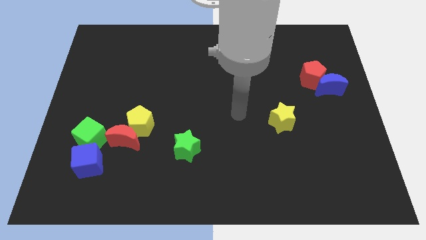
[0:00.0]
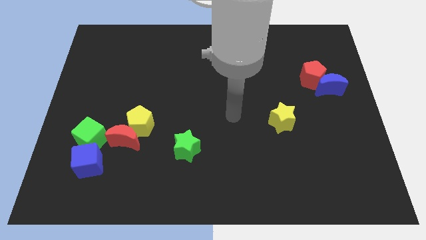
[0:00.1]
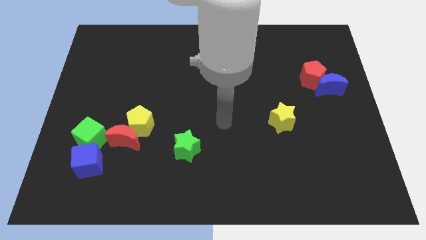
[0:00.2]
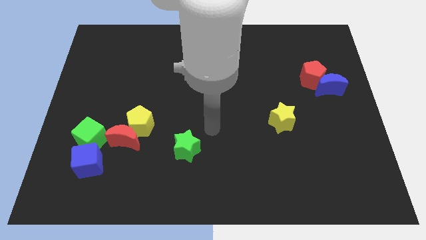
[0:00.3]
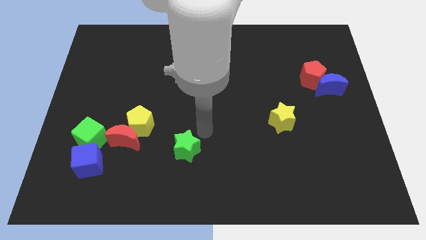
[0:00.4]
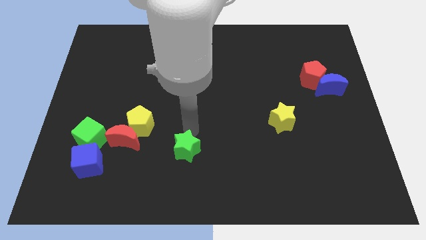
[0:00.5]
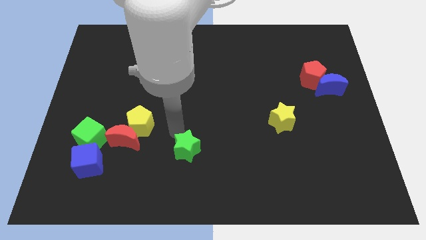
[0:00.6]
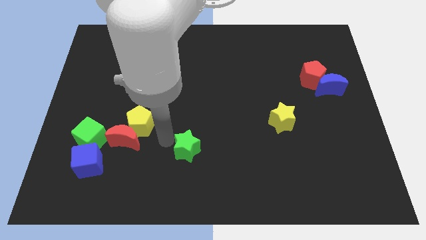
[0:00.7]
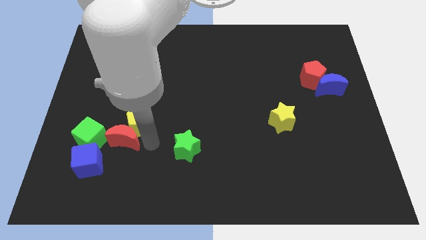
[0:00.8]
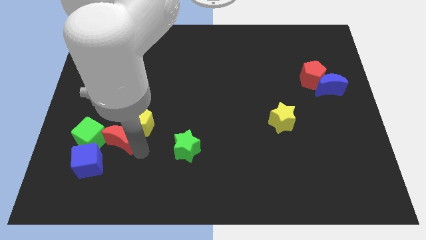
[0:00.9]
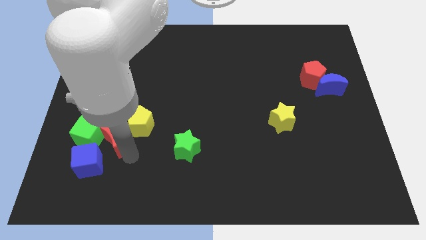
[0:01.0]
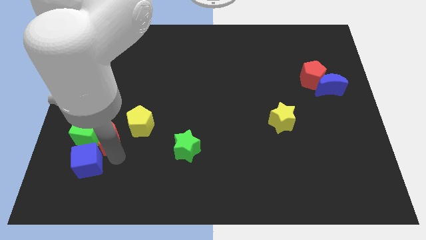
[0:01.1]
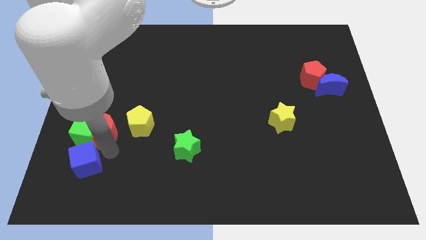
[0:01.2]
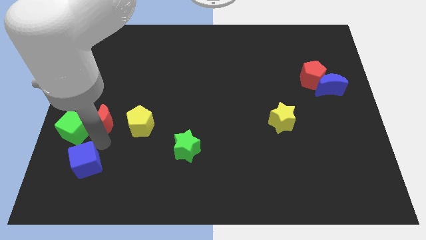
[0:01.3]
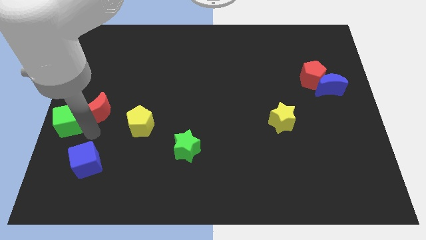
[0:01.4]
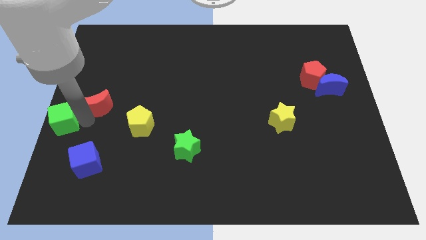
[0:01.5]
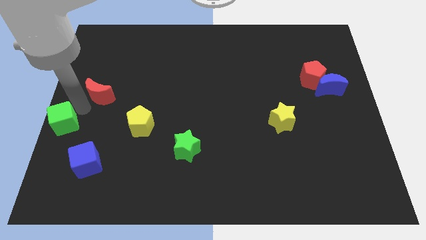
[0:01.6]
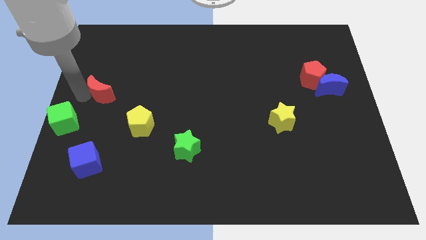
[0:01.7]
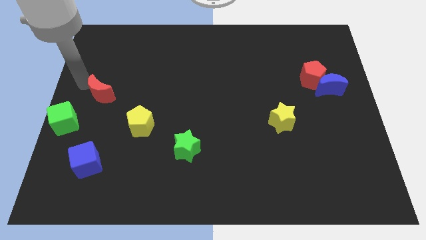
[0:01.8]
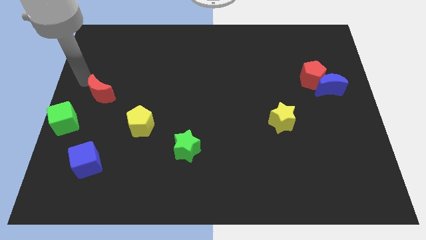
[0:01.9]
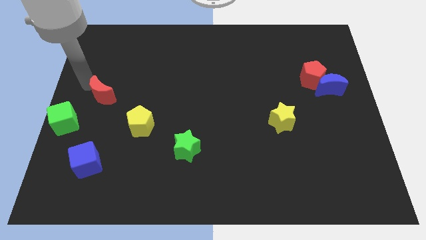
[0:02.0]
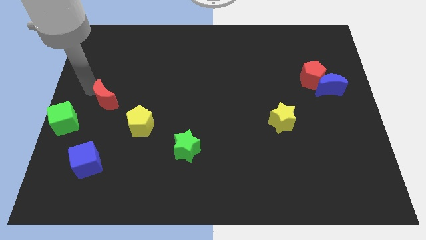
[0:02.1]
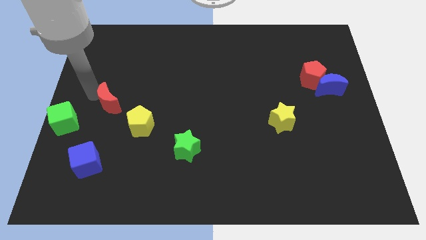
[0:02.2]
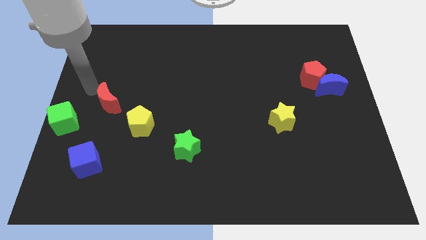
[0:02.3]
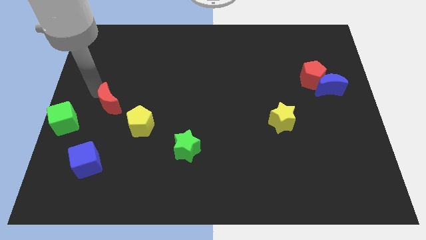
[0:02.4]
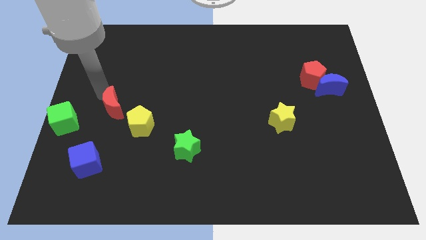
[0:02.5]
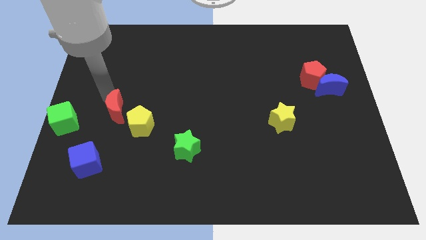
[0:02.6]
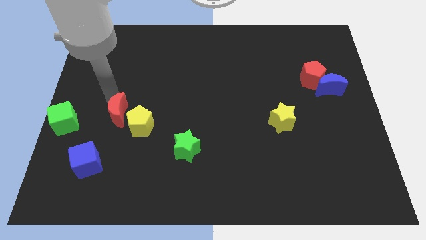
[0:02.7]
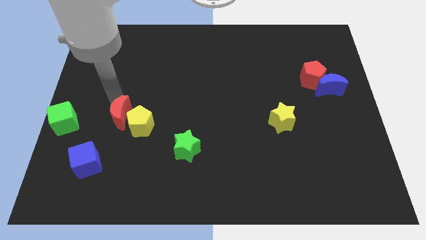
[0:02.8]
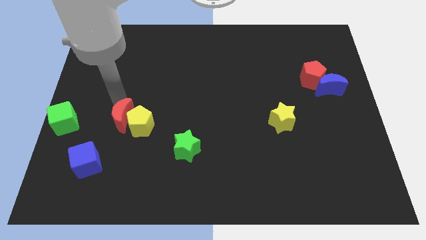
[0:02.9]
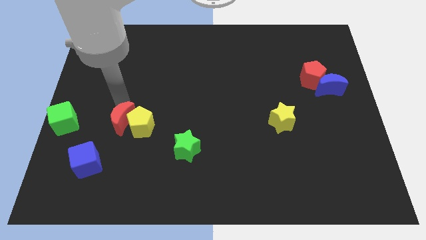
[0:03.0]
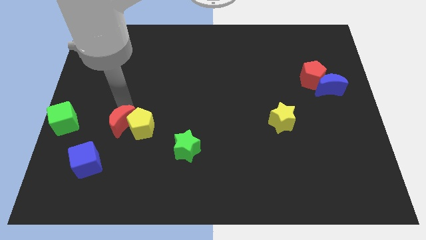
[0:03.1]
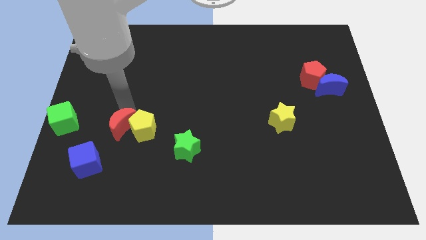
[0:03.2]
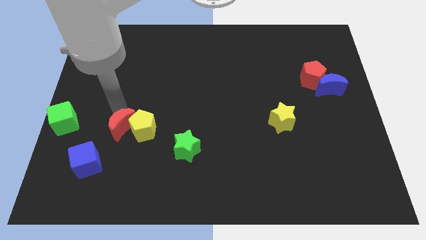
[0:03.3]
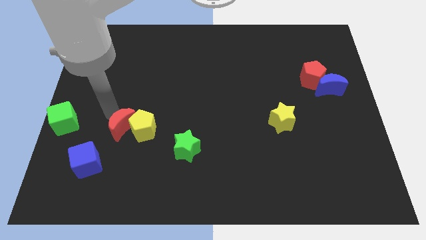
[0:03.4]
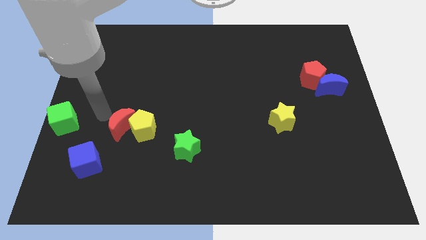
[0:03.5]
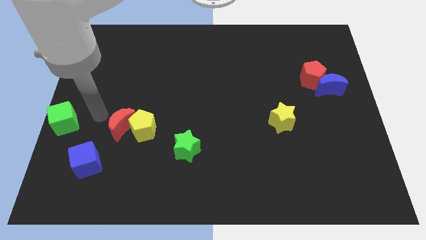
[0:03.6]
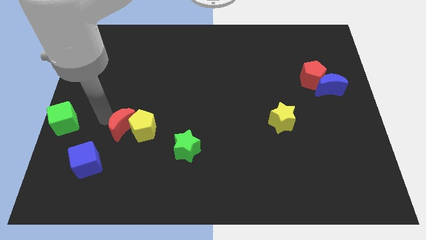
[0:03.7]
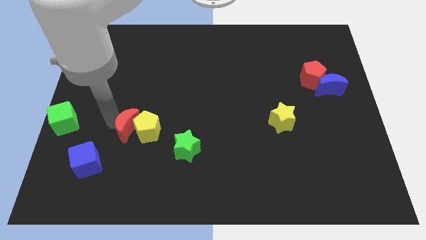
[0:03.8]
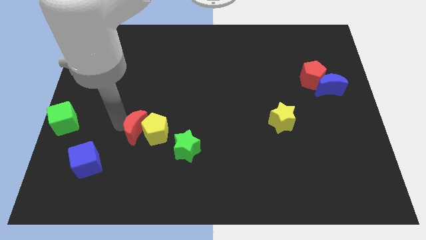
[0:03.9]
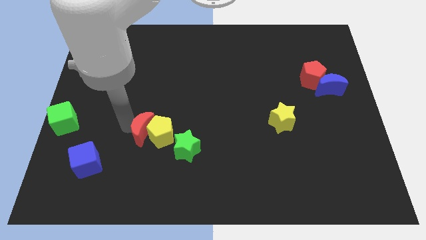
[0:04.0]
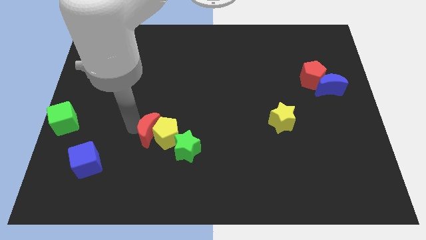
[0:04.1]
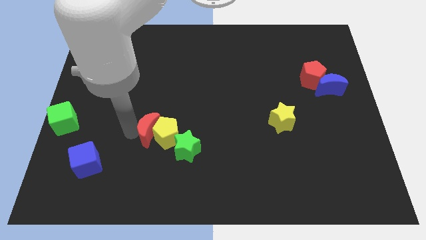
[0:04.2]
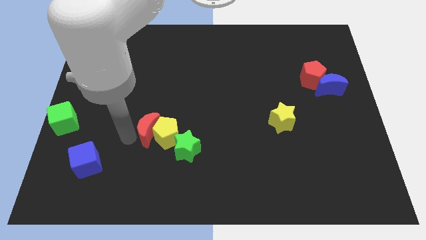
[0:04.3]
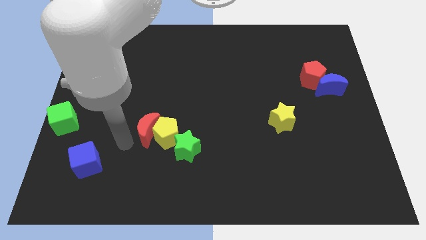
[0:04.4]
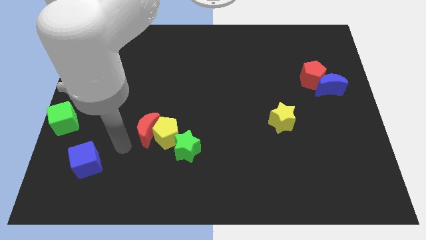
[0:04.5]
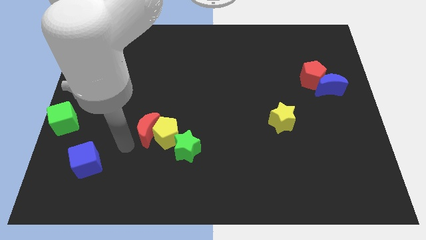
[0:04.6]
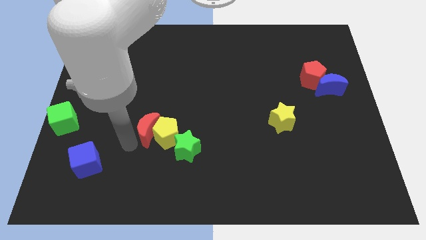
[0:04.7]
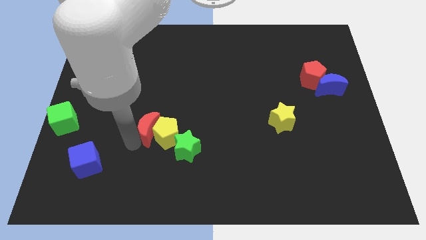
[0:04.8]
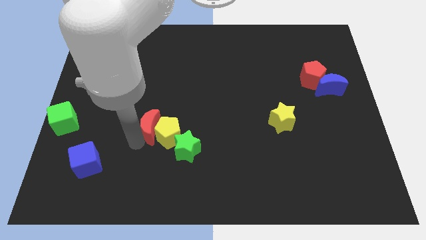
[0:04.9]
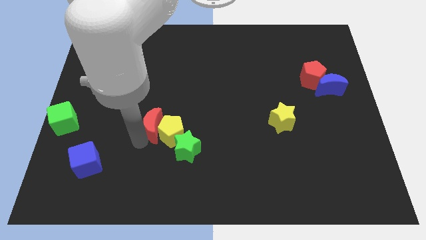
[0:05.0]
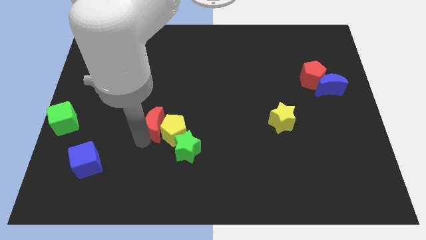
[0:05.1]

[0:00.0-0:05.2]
slide the red moon a bit upwards and to the right

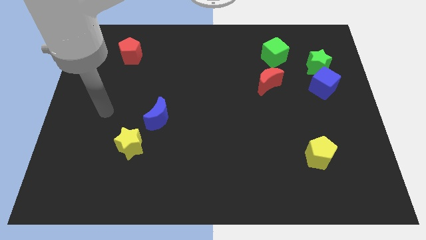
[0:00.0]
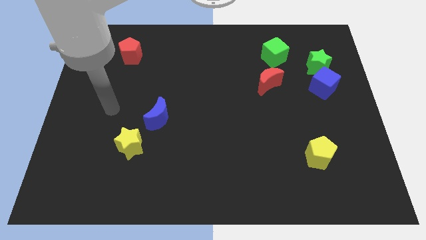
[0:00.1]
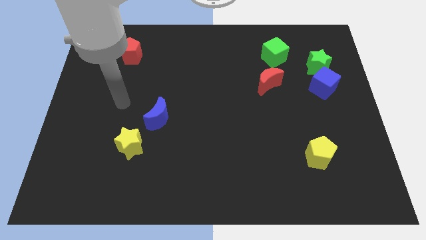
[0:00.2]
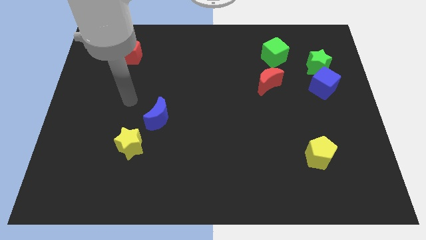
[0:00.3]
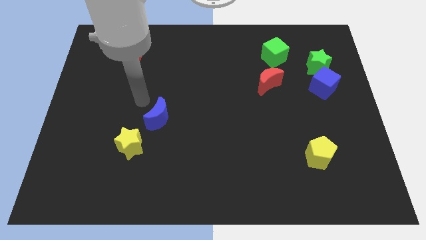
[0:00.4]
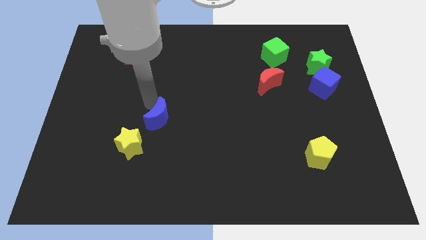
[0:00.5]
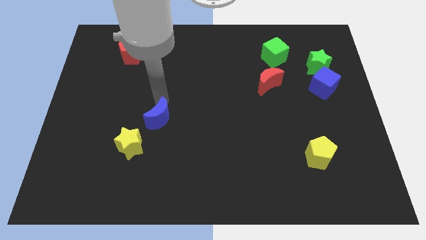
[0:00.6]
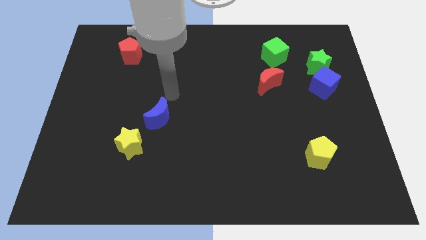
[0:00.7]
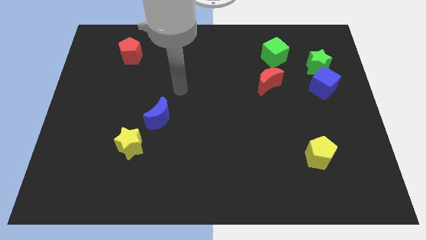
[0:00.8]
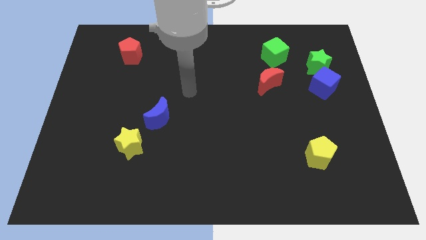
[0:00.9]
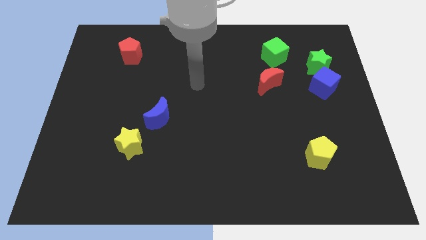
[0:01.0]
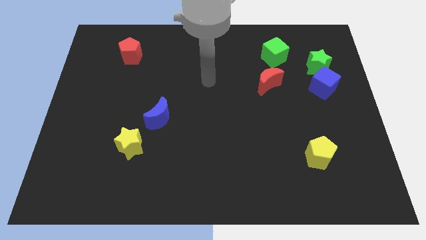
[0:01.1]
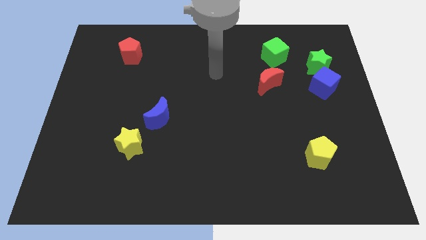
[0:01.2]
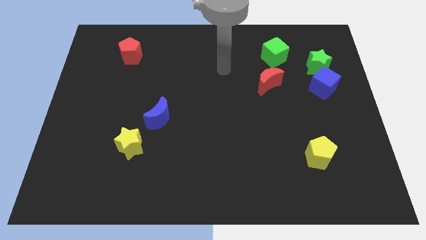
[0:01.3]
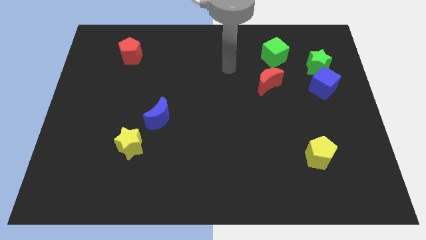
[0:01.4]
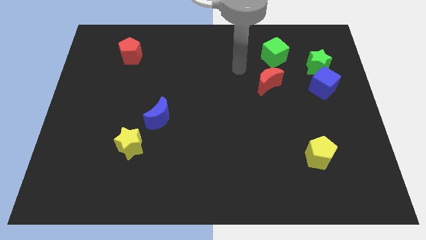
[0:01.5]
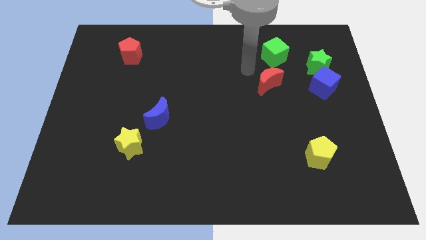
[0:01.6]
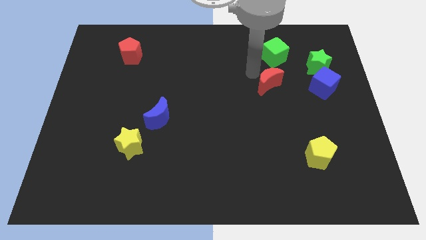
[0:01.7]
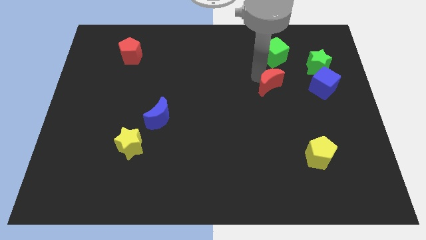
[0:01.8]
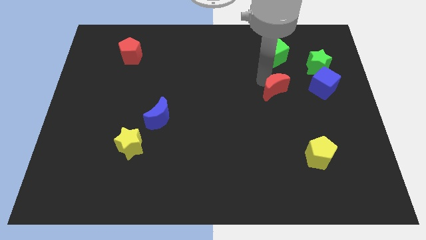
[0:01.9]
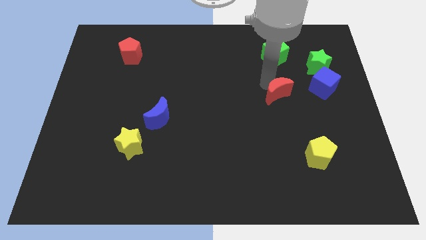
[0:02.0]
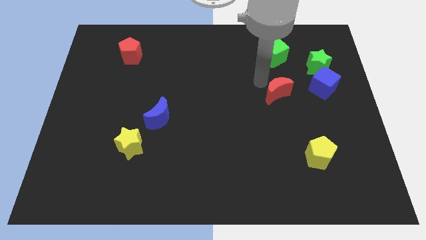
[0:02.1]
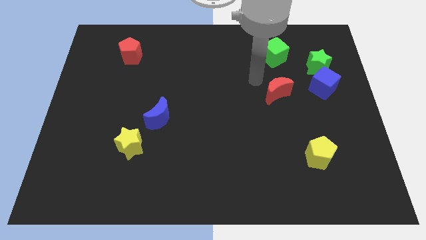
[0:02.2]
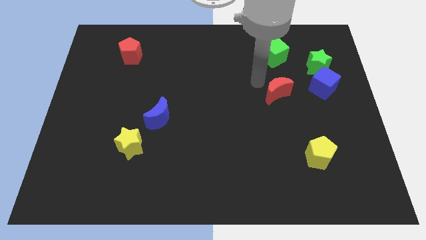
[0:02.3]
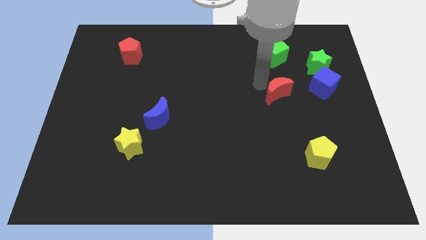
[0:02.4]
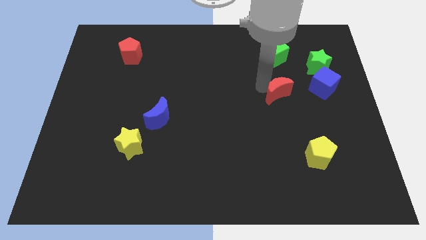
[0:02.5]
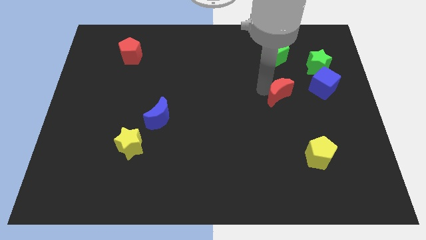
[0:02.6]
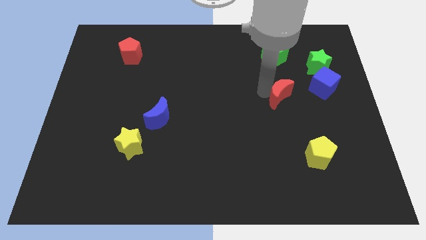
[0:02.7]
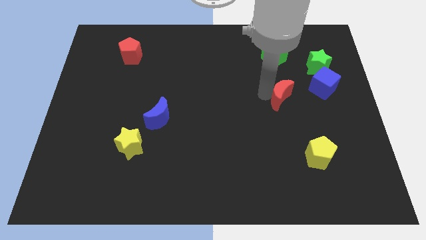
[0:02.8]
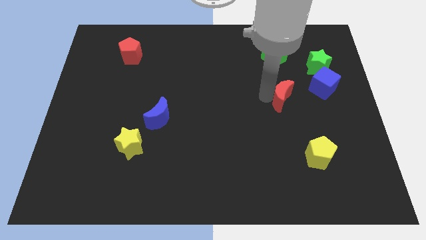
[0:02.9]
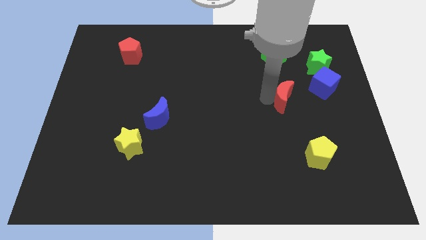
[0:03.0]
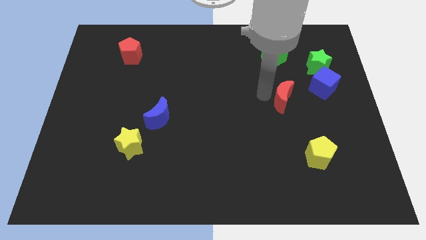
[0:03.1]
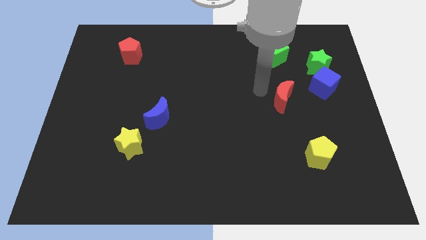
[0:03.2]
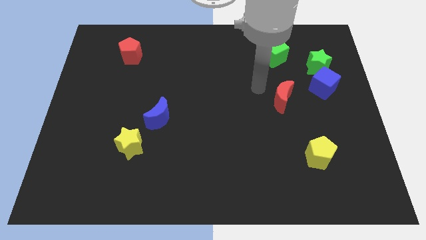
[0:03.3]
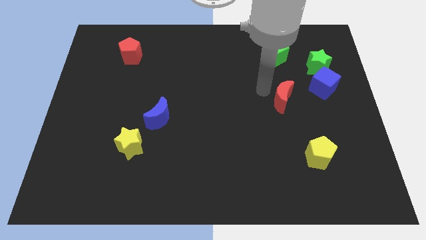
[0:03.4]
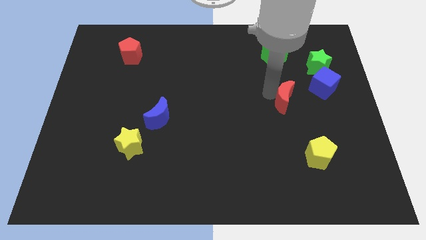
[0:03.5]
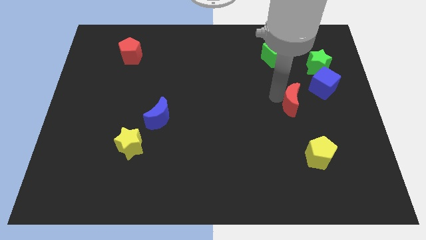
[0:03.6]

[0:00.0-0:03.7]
slide the red moon a bit down and to the right diagonally
